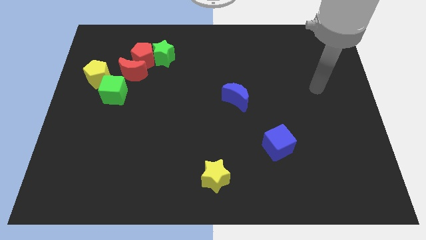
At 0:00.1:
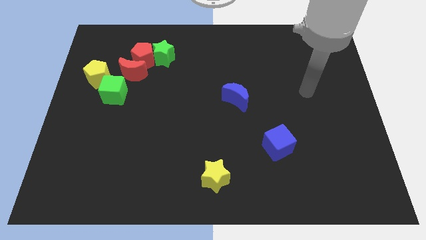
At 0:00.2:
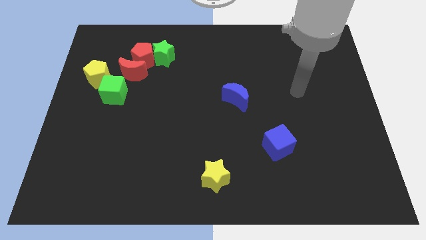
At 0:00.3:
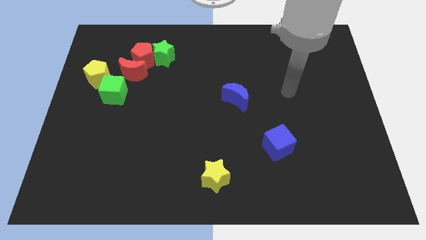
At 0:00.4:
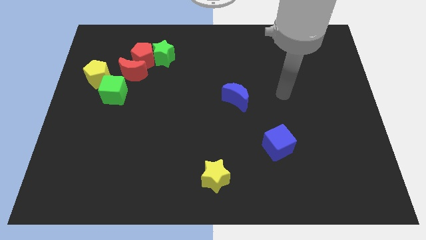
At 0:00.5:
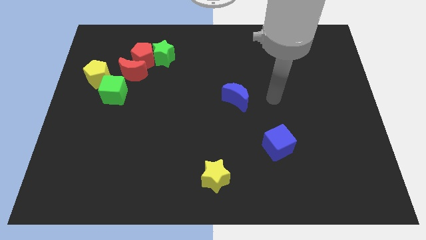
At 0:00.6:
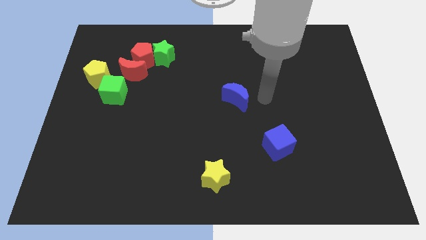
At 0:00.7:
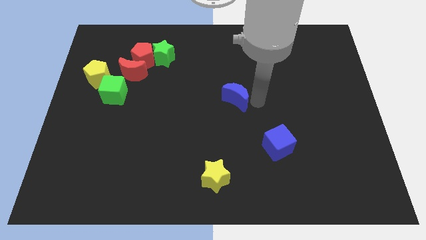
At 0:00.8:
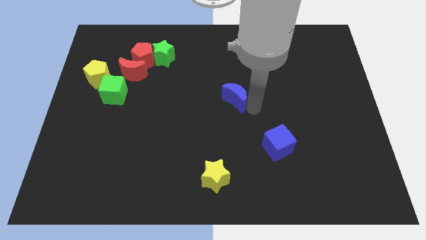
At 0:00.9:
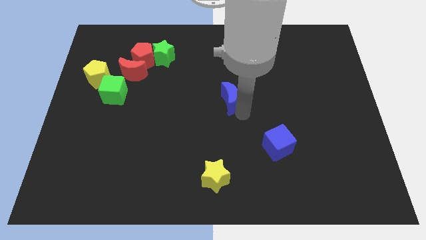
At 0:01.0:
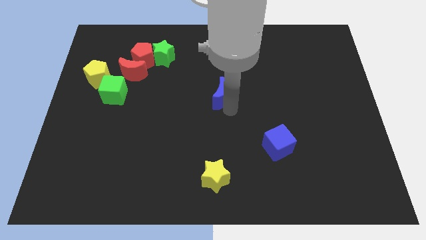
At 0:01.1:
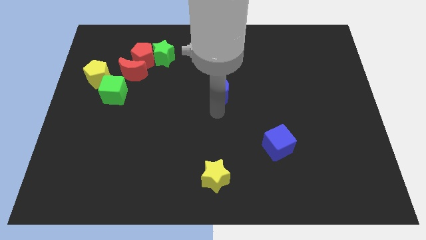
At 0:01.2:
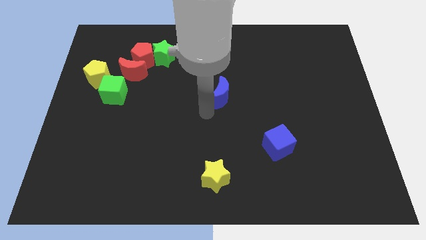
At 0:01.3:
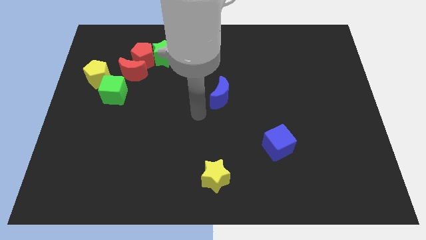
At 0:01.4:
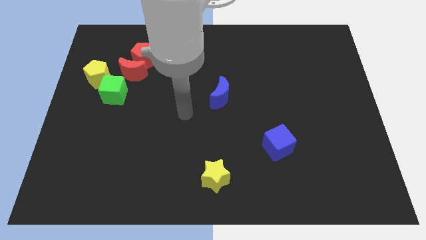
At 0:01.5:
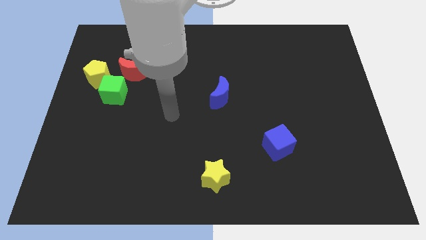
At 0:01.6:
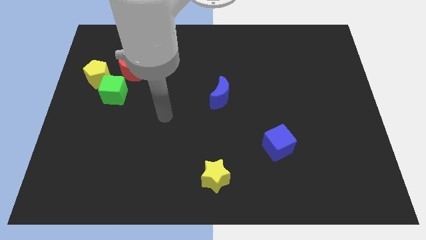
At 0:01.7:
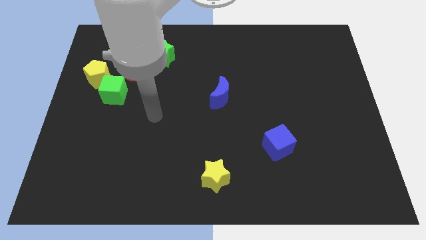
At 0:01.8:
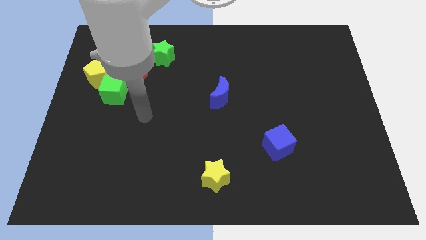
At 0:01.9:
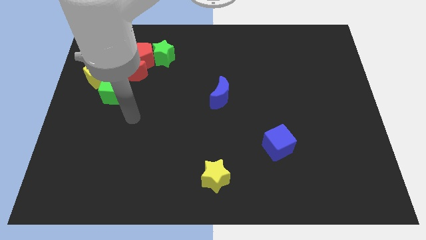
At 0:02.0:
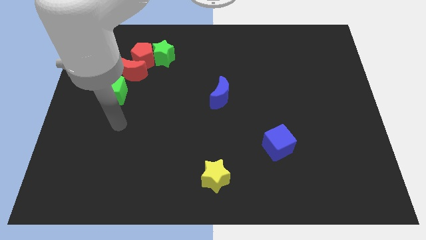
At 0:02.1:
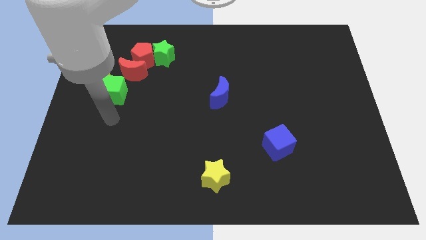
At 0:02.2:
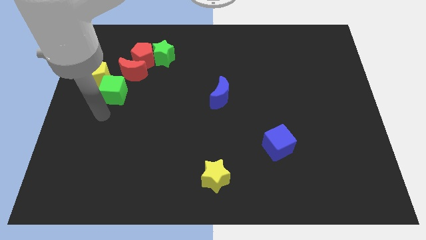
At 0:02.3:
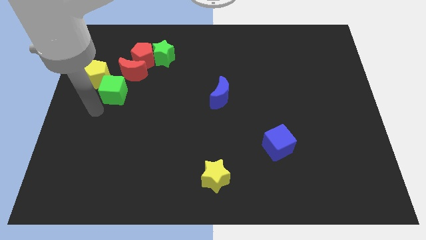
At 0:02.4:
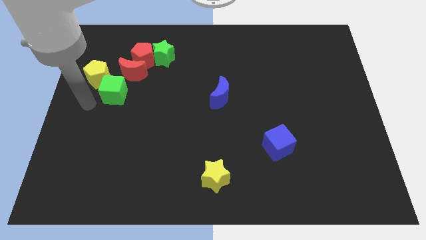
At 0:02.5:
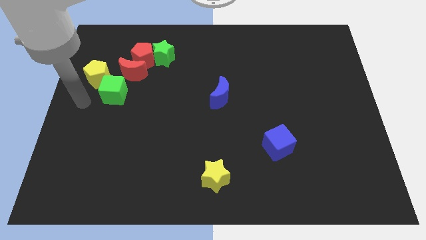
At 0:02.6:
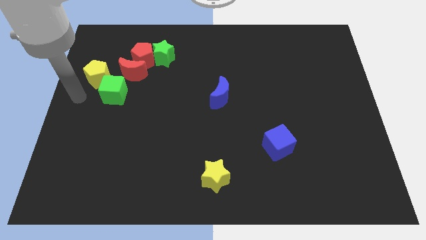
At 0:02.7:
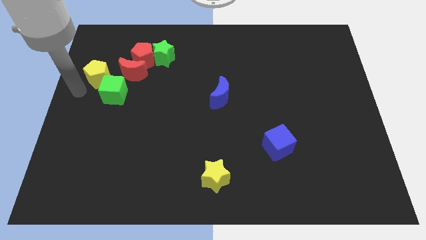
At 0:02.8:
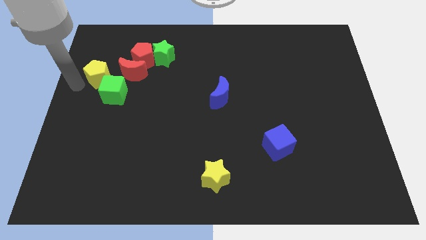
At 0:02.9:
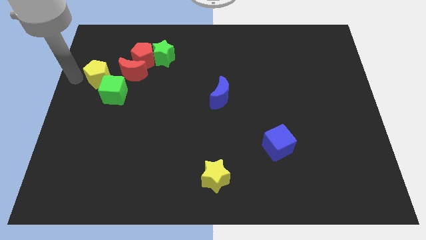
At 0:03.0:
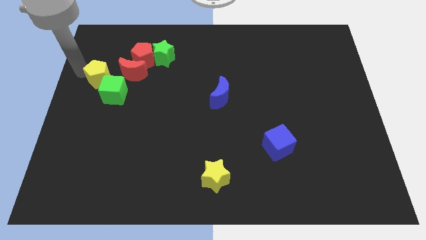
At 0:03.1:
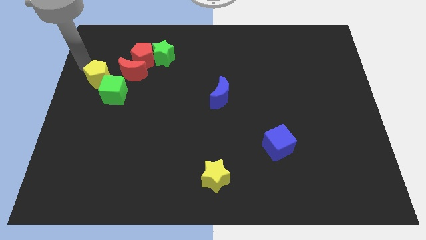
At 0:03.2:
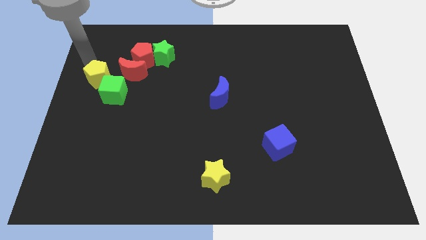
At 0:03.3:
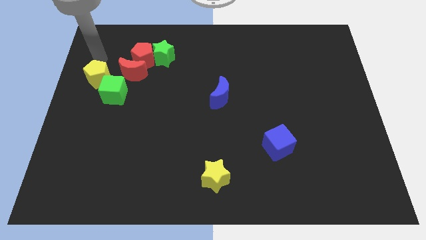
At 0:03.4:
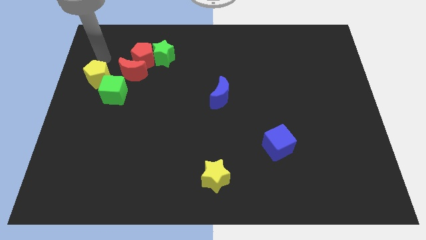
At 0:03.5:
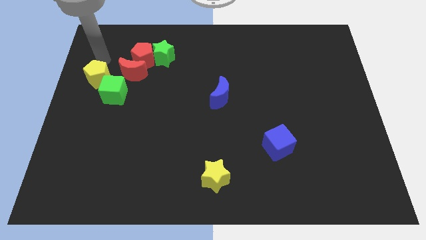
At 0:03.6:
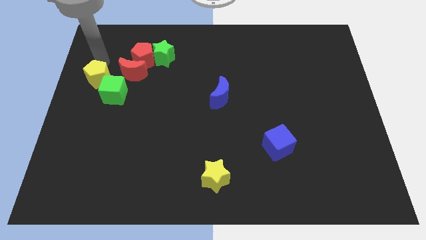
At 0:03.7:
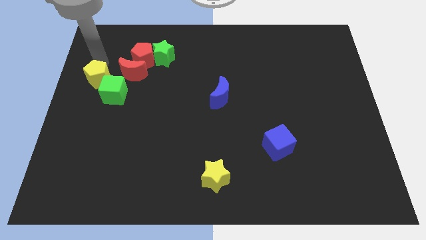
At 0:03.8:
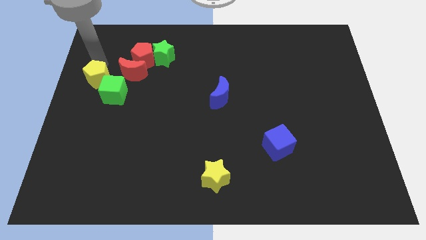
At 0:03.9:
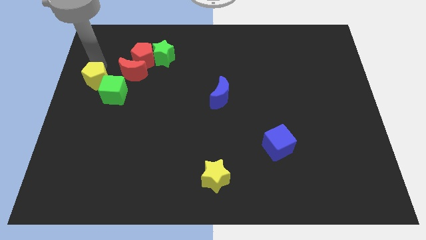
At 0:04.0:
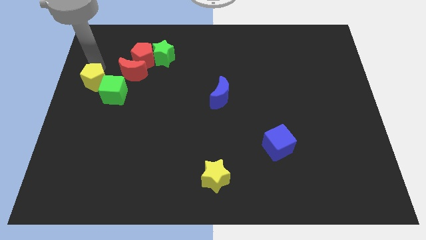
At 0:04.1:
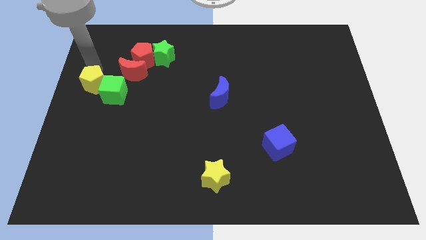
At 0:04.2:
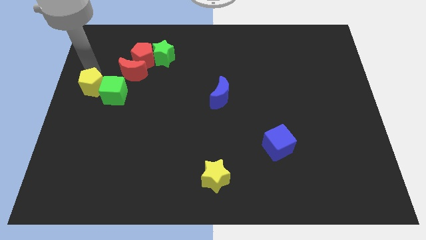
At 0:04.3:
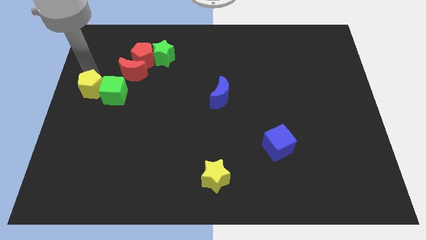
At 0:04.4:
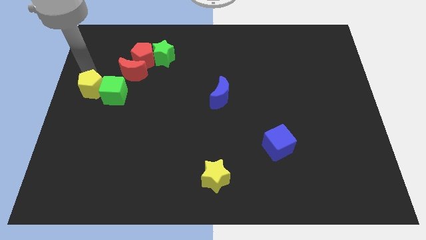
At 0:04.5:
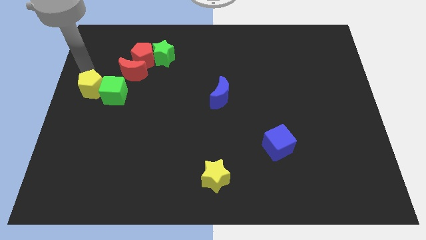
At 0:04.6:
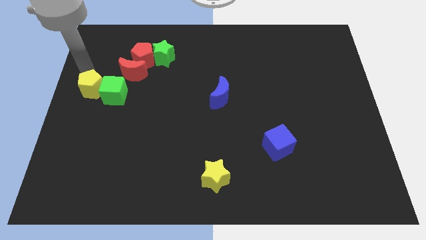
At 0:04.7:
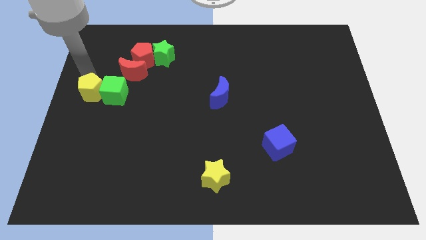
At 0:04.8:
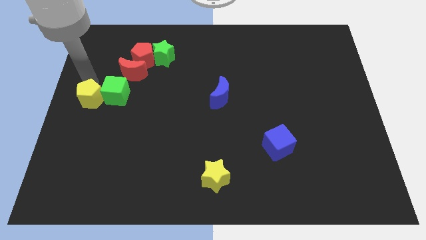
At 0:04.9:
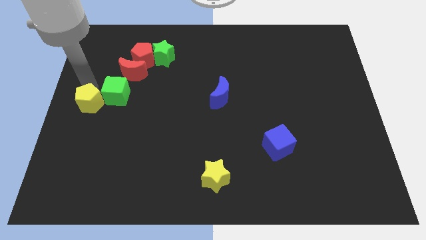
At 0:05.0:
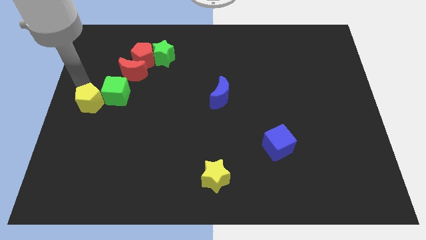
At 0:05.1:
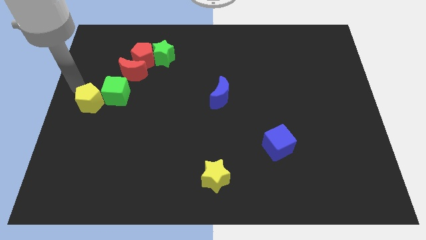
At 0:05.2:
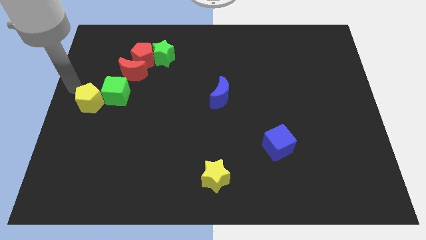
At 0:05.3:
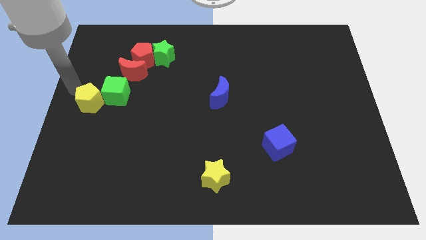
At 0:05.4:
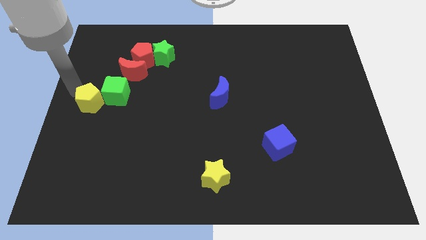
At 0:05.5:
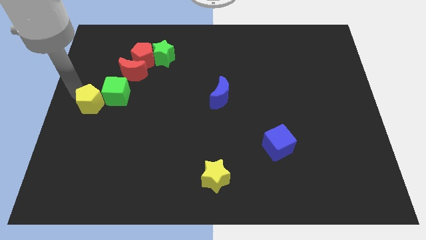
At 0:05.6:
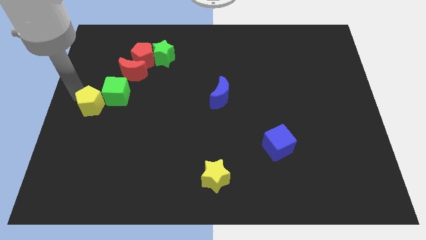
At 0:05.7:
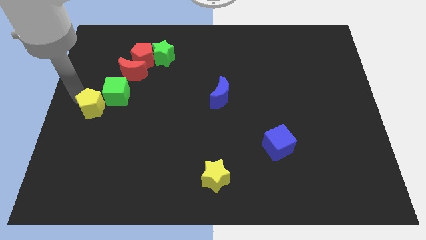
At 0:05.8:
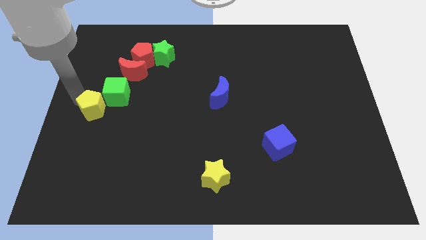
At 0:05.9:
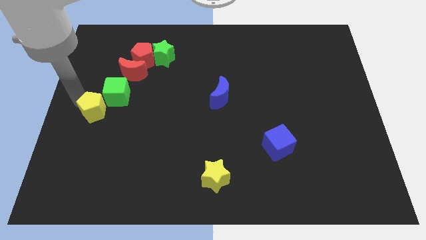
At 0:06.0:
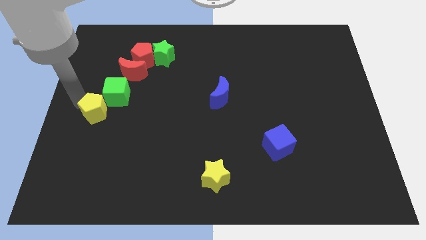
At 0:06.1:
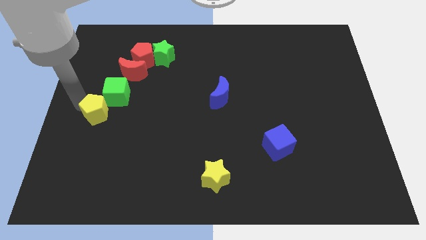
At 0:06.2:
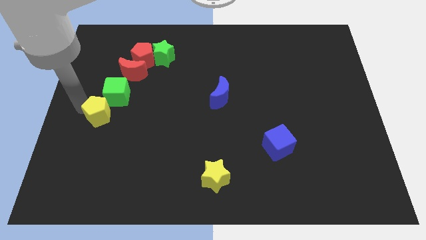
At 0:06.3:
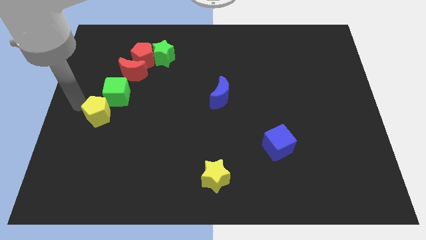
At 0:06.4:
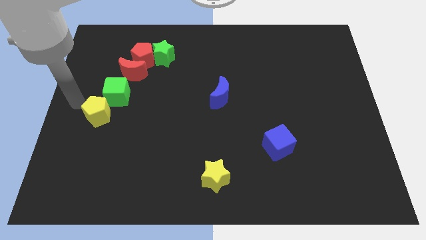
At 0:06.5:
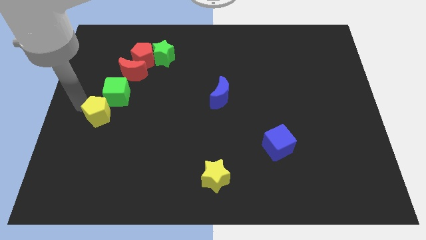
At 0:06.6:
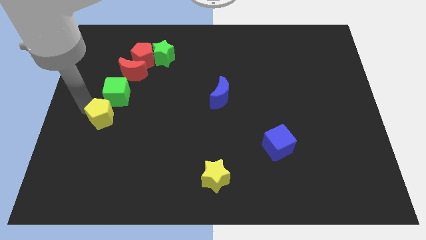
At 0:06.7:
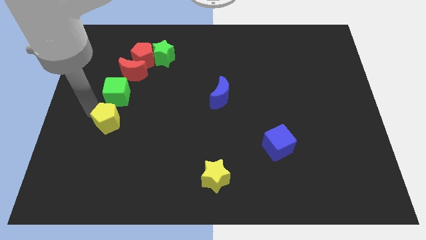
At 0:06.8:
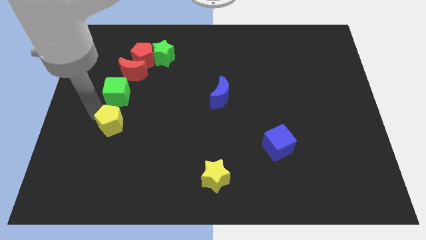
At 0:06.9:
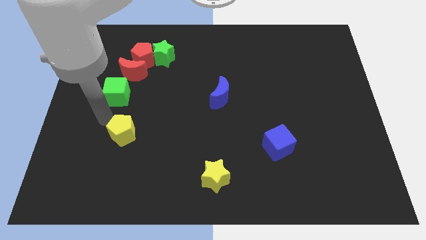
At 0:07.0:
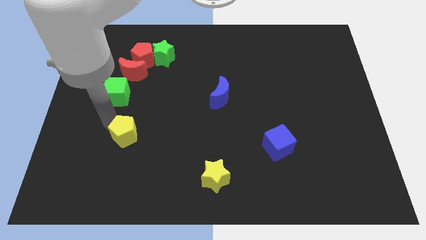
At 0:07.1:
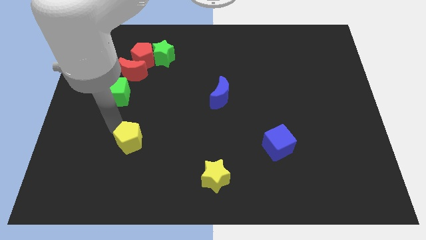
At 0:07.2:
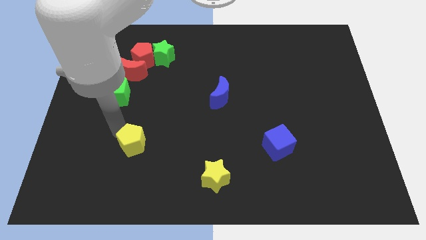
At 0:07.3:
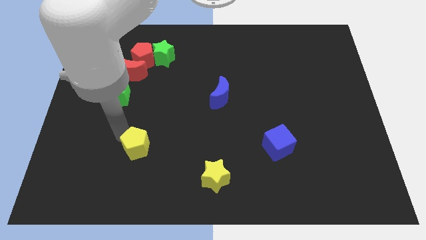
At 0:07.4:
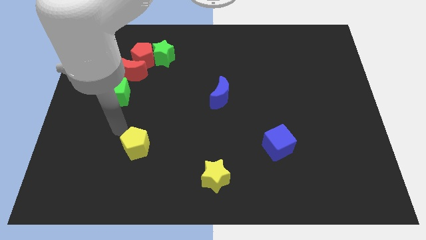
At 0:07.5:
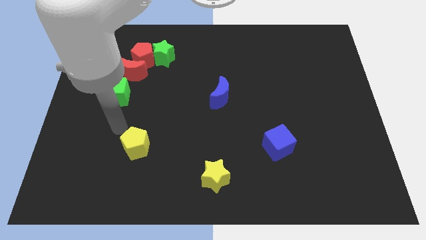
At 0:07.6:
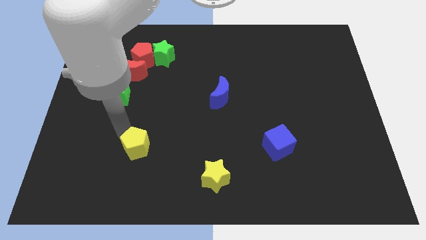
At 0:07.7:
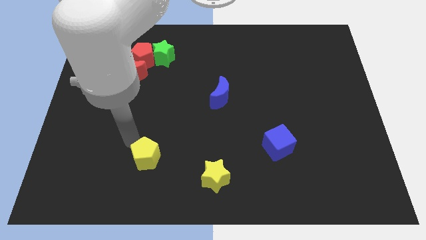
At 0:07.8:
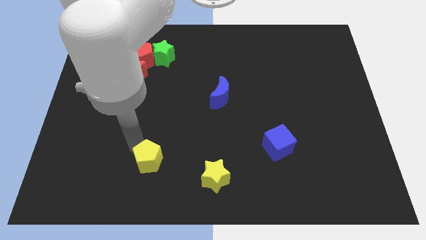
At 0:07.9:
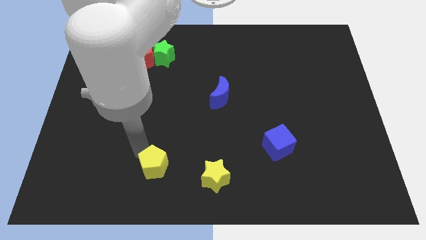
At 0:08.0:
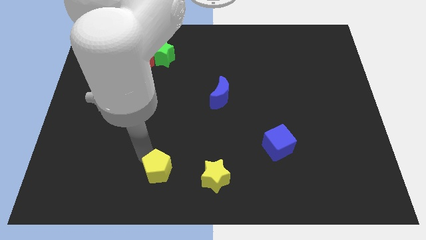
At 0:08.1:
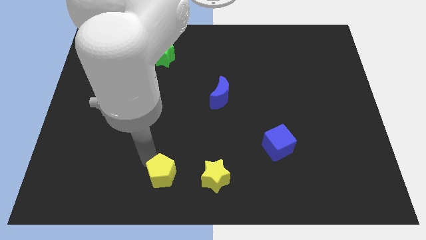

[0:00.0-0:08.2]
put the yellow pentagon to the bottom side
